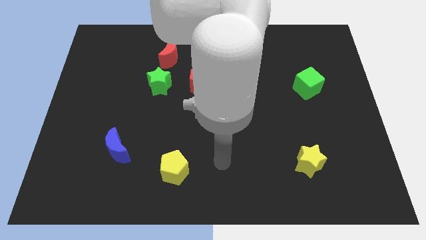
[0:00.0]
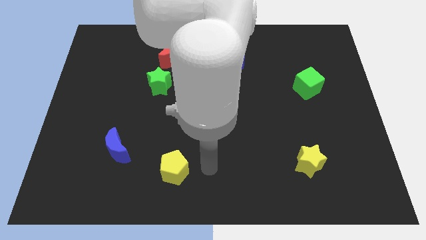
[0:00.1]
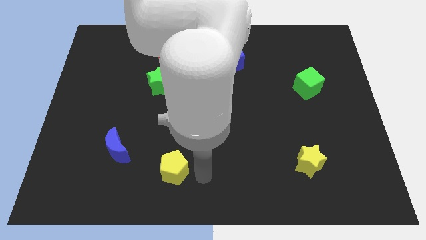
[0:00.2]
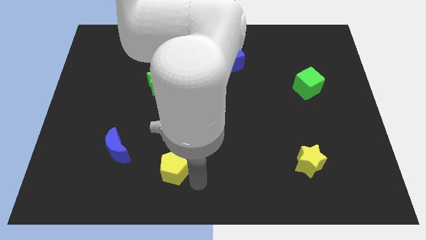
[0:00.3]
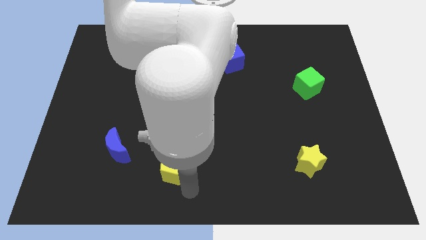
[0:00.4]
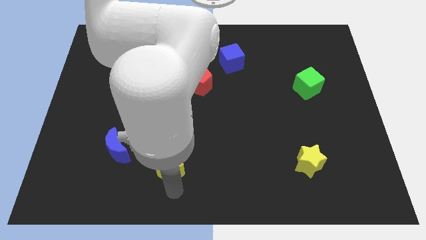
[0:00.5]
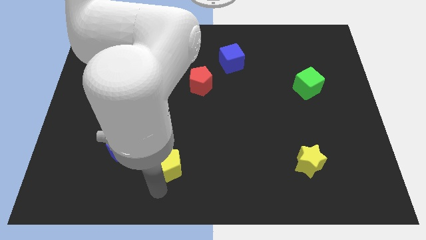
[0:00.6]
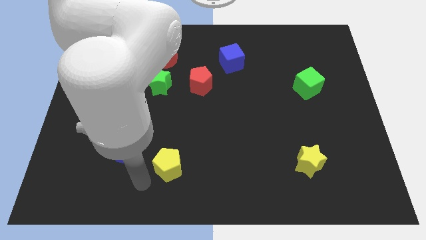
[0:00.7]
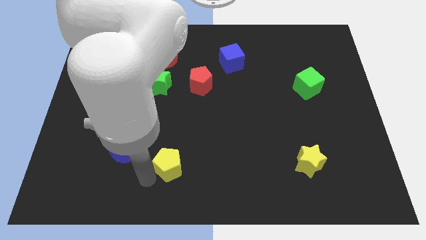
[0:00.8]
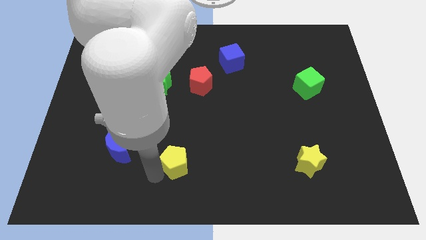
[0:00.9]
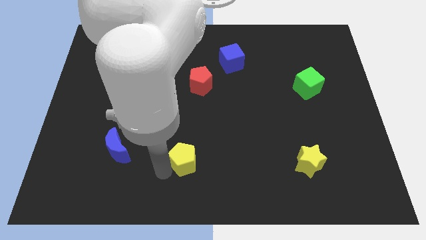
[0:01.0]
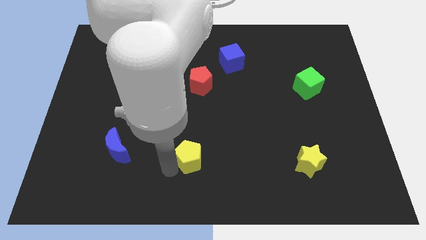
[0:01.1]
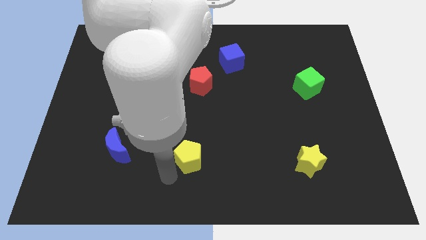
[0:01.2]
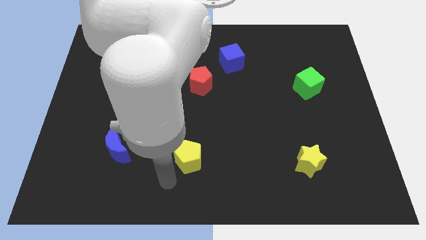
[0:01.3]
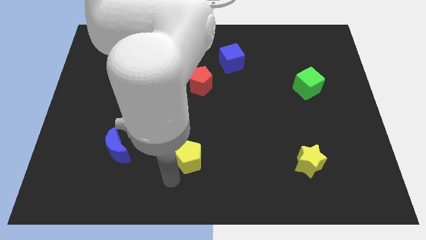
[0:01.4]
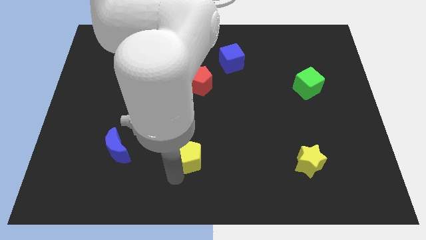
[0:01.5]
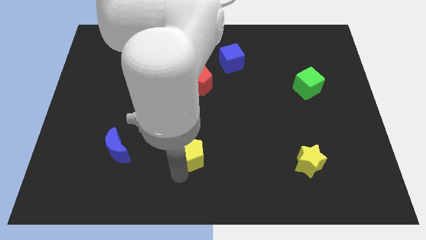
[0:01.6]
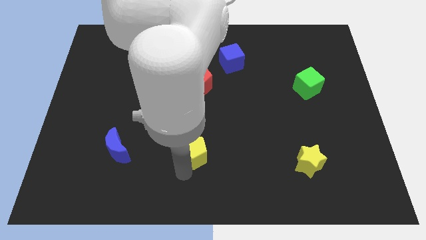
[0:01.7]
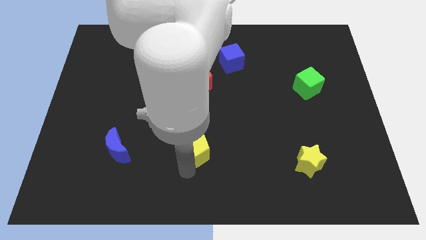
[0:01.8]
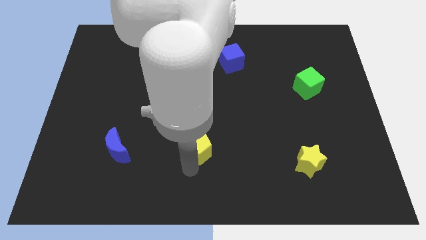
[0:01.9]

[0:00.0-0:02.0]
slightly slide the yellow pentagon diagonally up and to the right

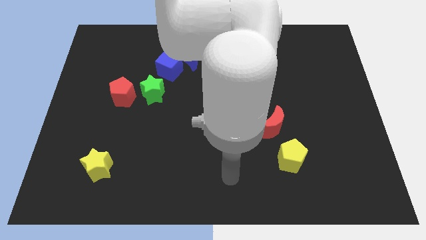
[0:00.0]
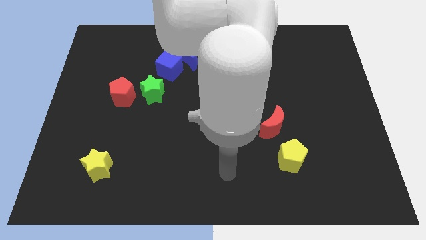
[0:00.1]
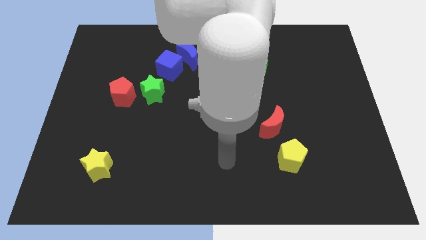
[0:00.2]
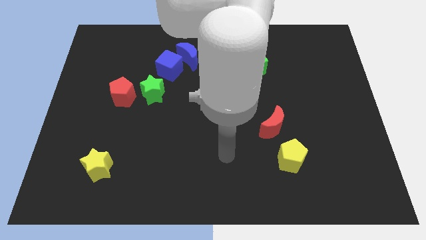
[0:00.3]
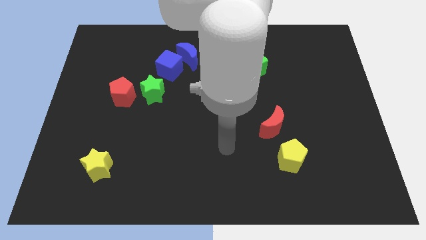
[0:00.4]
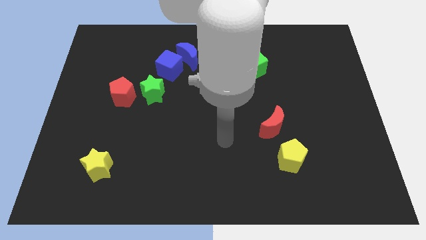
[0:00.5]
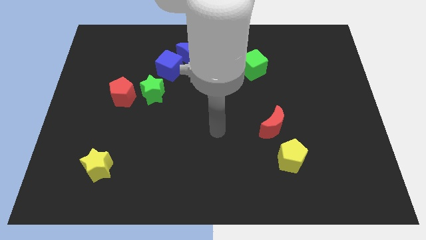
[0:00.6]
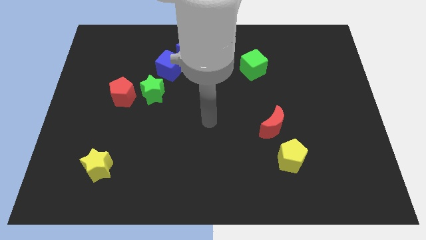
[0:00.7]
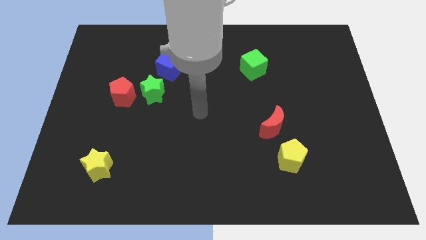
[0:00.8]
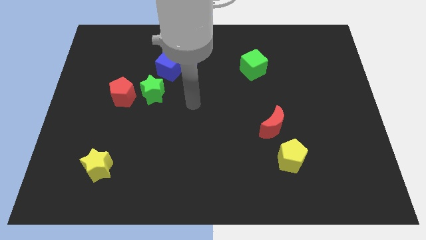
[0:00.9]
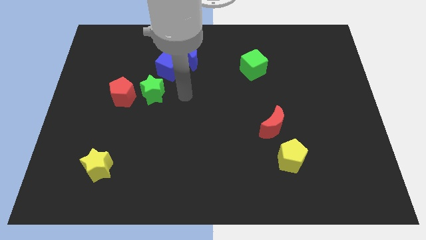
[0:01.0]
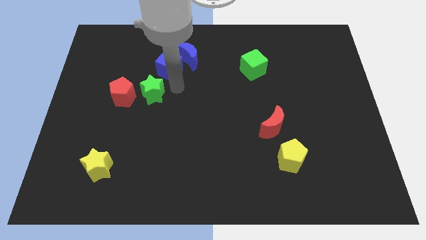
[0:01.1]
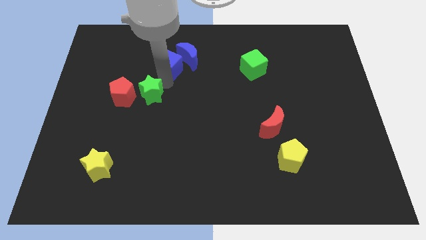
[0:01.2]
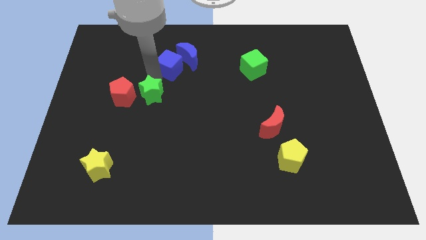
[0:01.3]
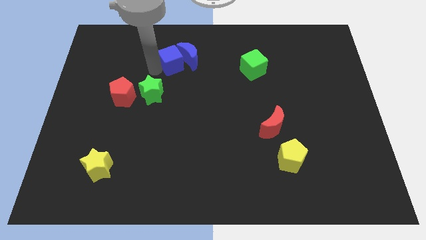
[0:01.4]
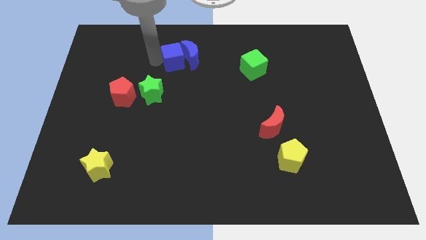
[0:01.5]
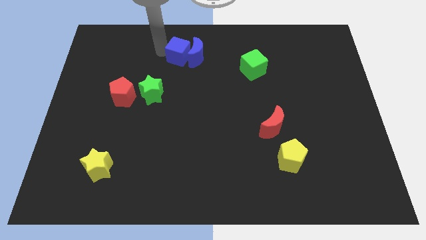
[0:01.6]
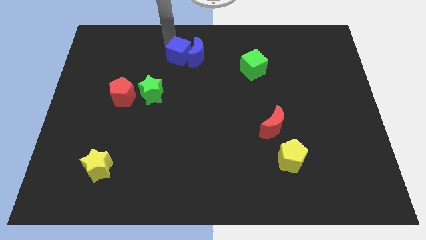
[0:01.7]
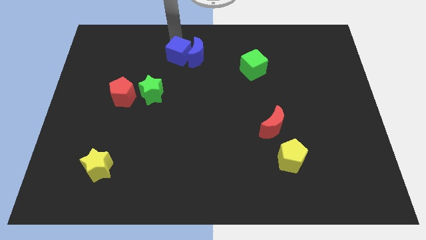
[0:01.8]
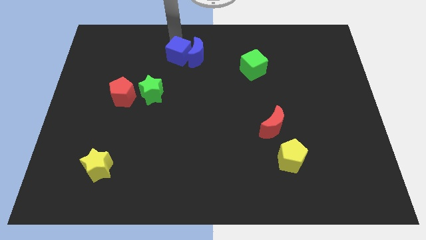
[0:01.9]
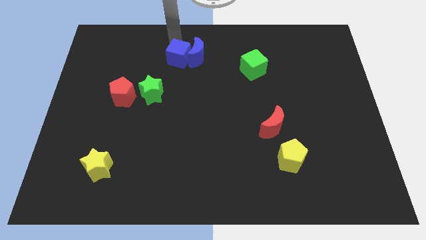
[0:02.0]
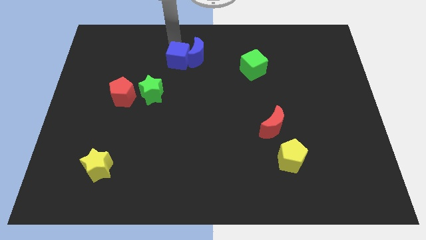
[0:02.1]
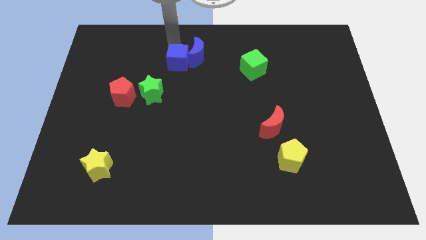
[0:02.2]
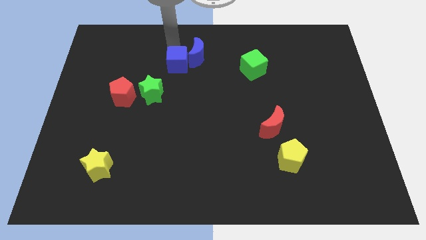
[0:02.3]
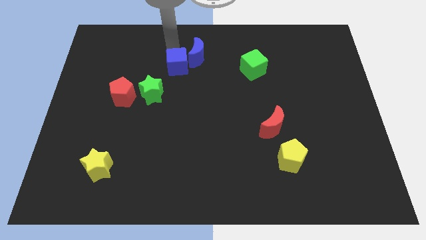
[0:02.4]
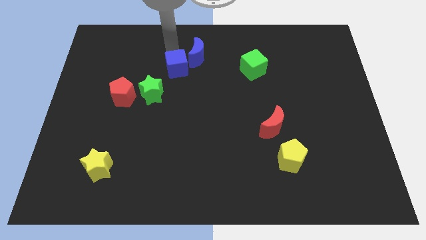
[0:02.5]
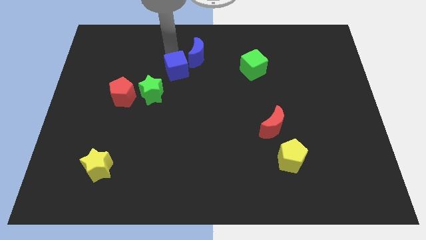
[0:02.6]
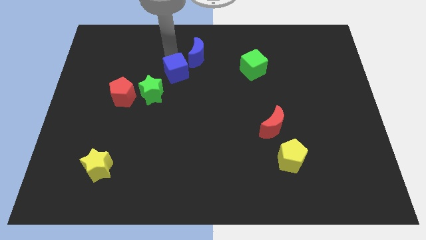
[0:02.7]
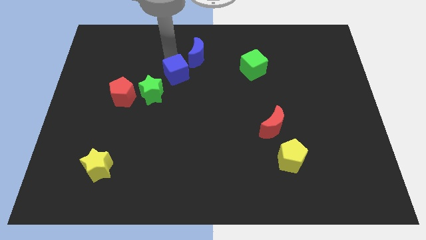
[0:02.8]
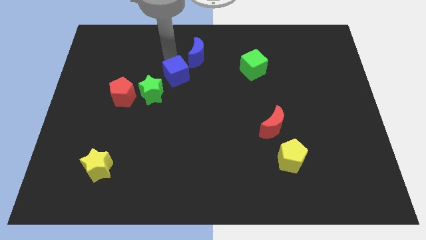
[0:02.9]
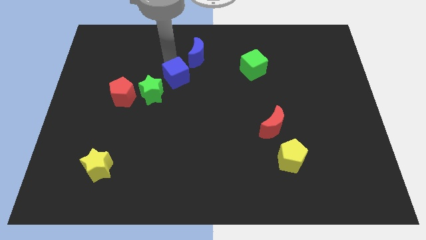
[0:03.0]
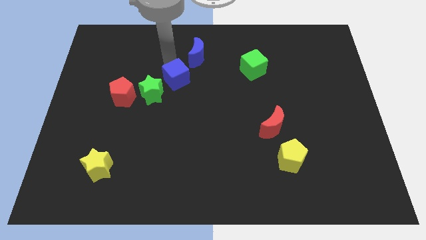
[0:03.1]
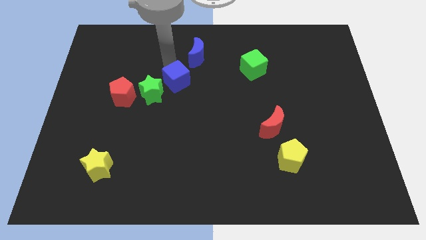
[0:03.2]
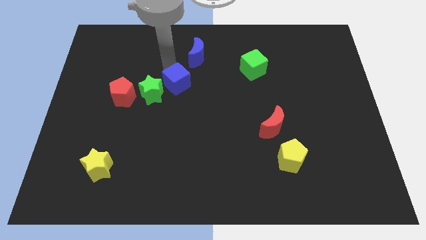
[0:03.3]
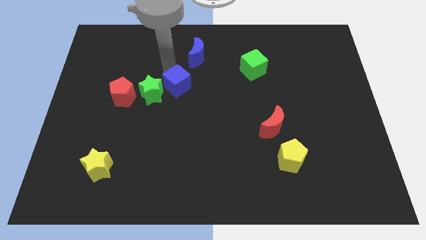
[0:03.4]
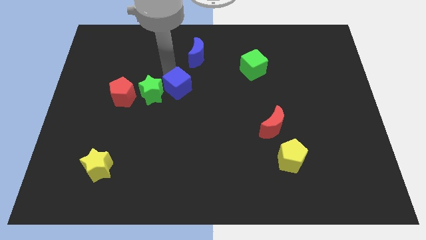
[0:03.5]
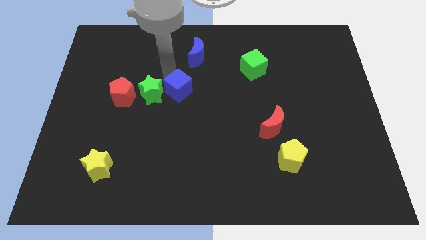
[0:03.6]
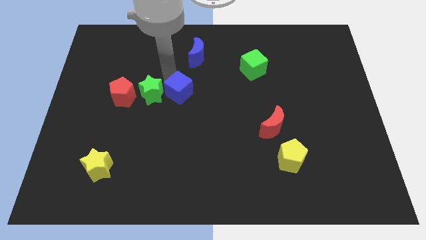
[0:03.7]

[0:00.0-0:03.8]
slide the blue cube a little diagonally downwards and right

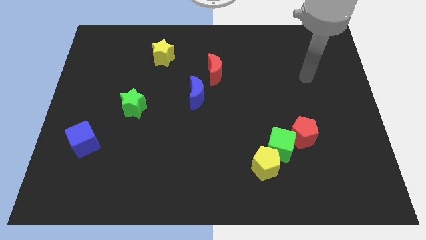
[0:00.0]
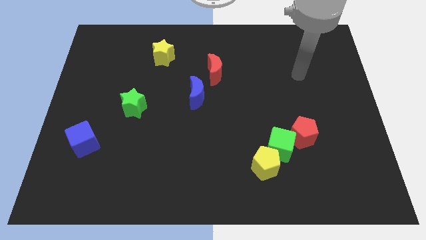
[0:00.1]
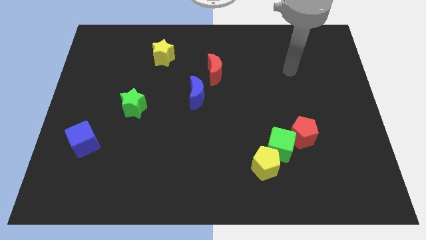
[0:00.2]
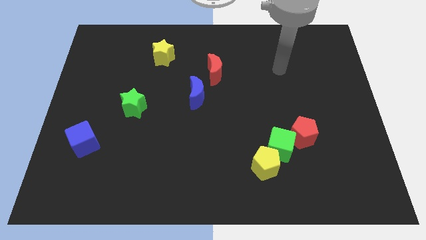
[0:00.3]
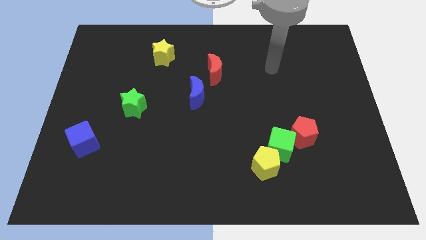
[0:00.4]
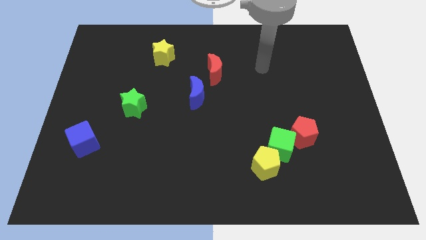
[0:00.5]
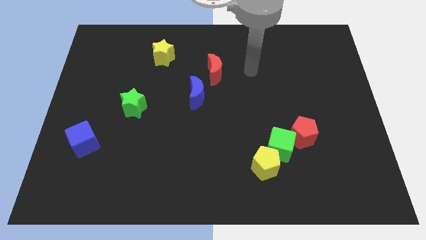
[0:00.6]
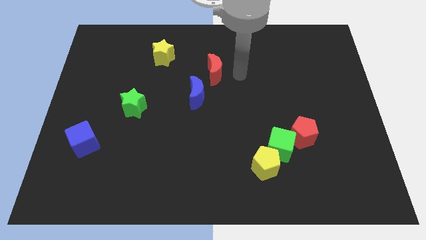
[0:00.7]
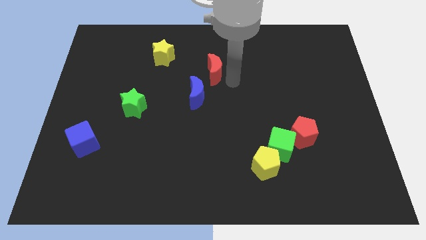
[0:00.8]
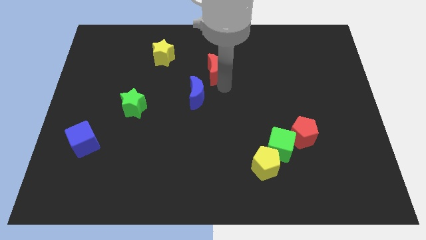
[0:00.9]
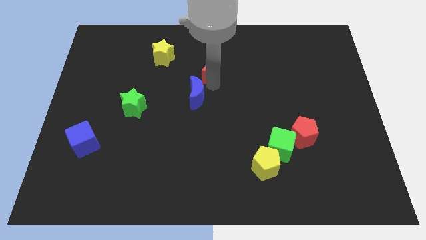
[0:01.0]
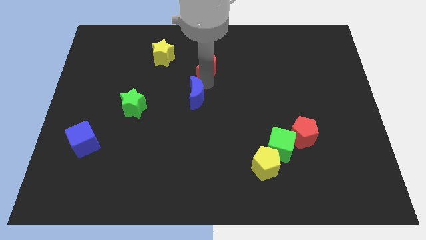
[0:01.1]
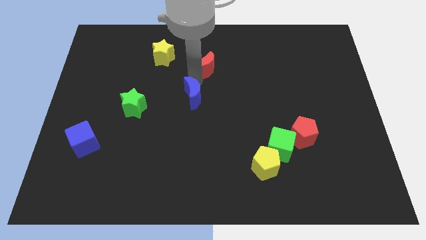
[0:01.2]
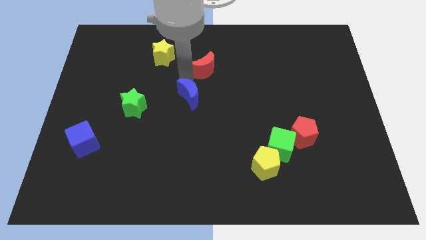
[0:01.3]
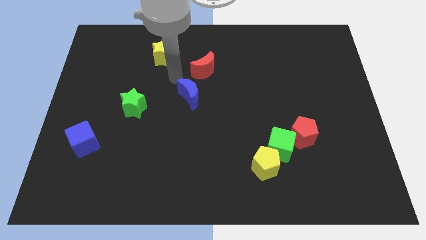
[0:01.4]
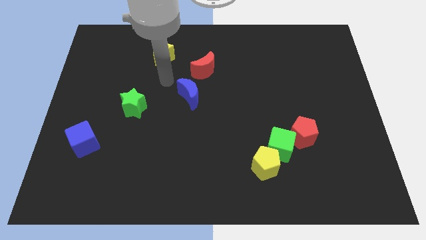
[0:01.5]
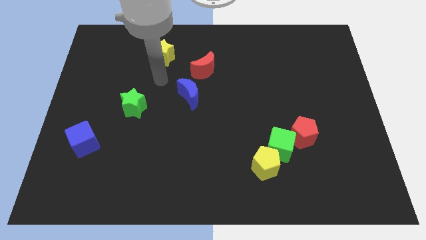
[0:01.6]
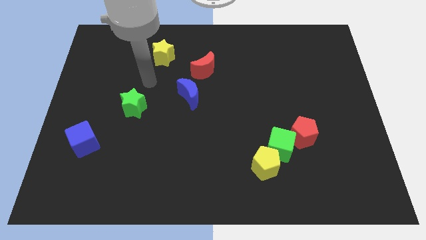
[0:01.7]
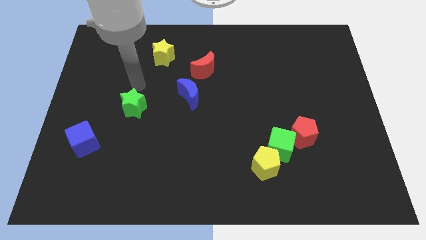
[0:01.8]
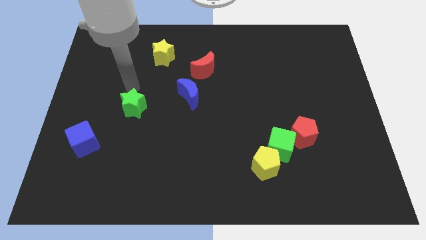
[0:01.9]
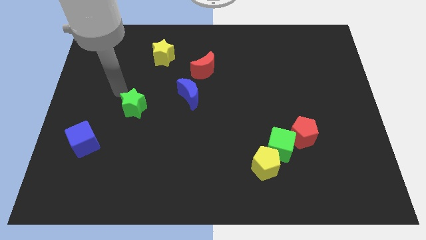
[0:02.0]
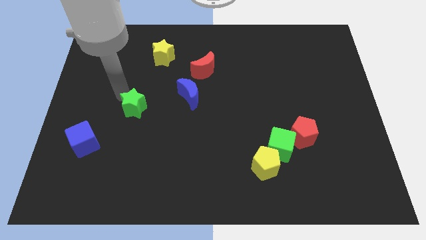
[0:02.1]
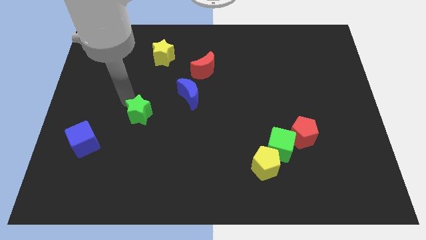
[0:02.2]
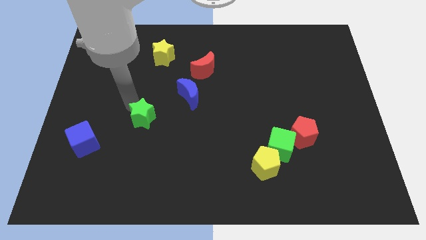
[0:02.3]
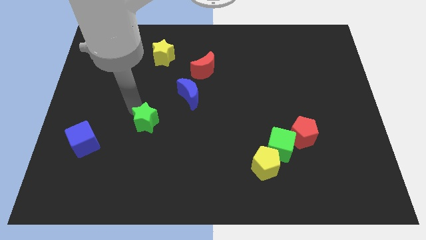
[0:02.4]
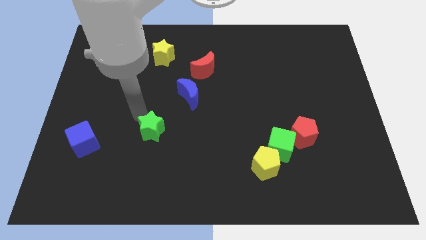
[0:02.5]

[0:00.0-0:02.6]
slide the green star down and then right slightly
